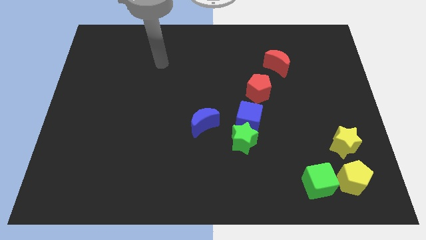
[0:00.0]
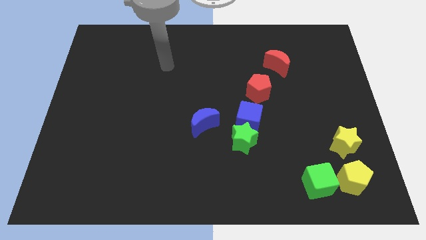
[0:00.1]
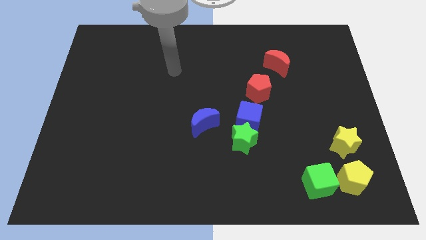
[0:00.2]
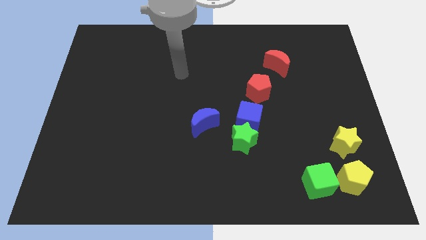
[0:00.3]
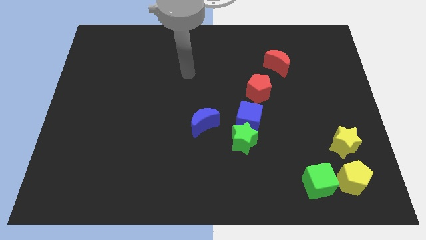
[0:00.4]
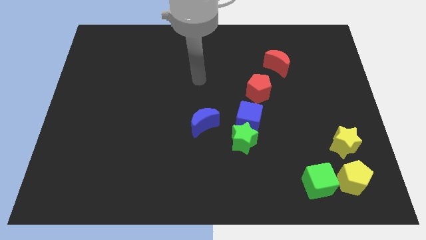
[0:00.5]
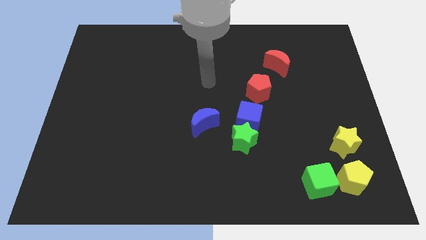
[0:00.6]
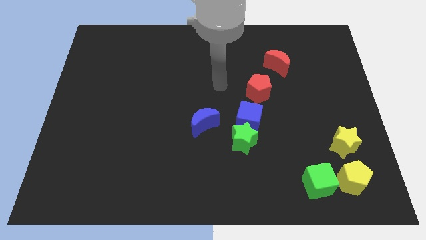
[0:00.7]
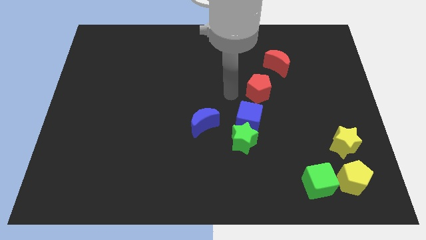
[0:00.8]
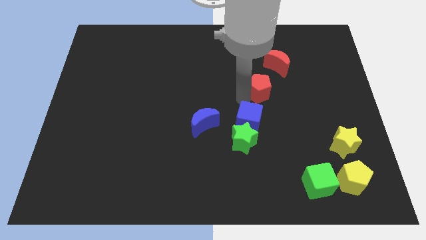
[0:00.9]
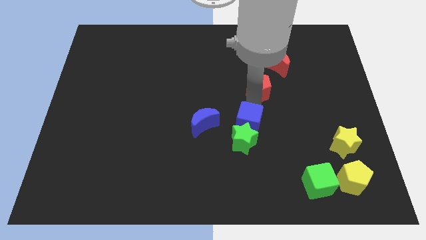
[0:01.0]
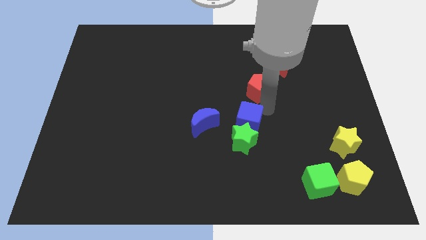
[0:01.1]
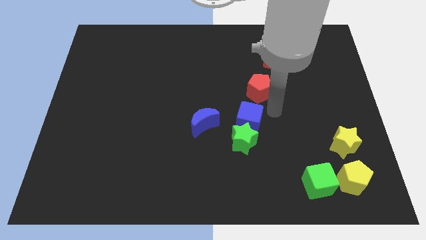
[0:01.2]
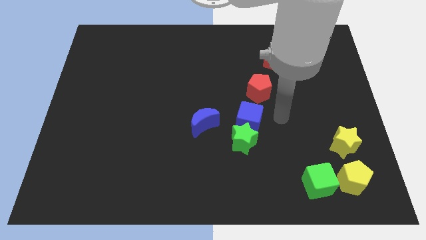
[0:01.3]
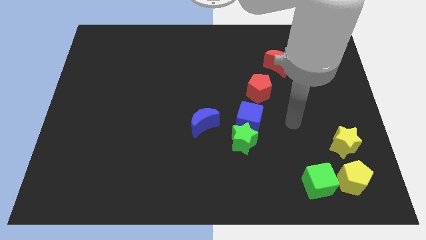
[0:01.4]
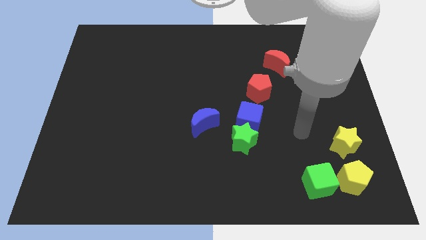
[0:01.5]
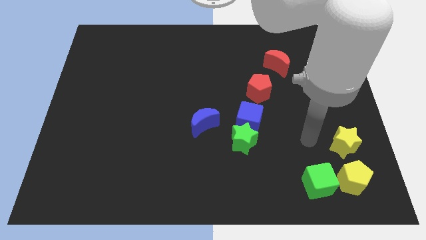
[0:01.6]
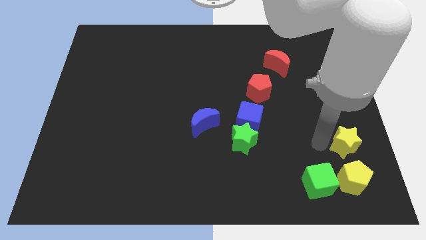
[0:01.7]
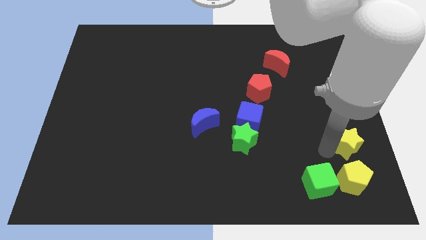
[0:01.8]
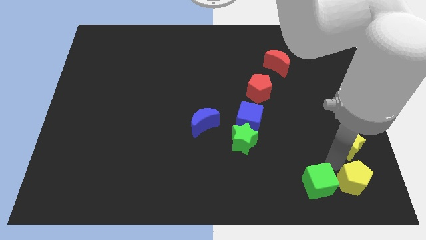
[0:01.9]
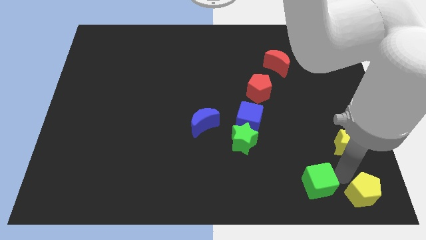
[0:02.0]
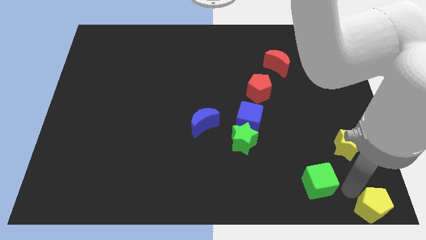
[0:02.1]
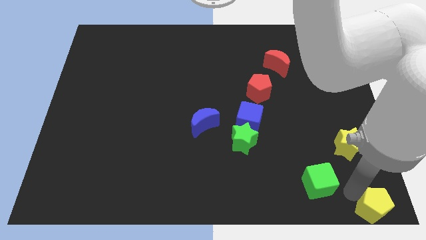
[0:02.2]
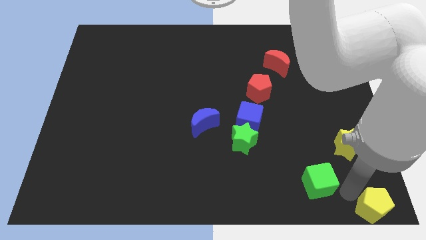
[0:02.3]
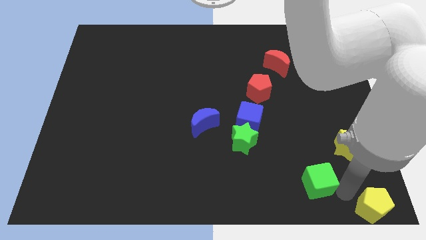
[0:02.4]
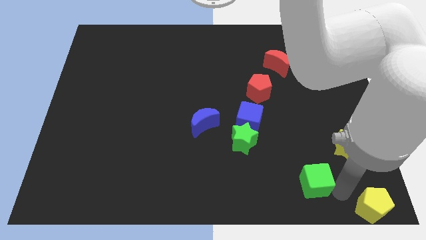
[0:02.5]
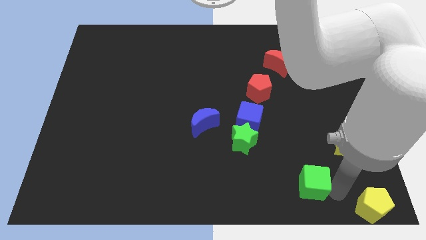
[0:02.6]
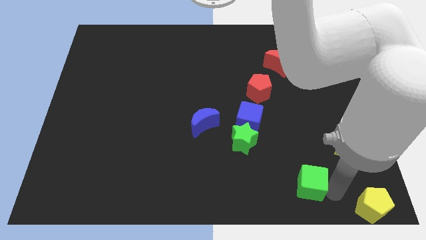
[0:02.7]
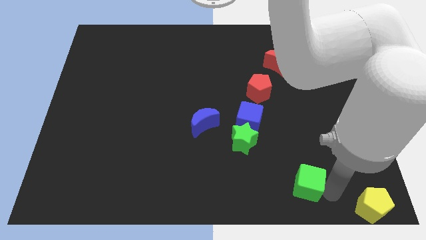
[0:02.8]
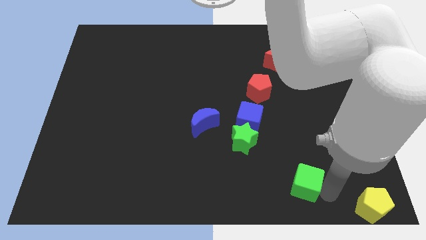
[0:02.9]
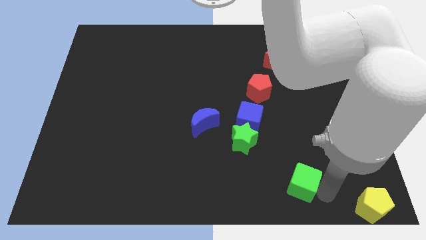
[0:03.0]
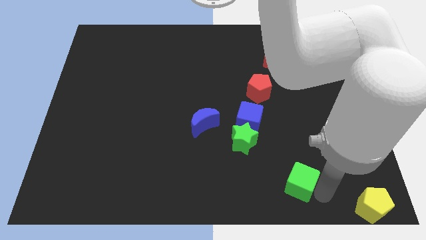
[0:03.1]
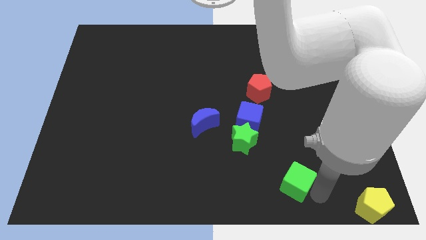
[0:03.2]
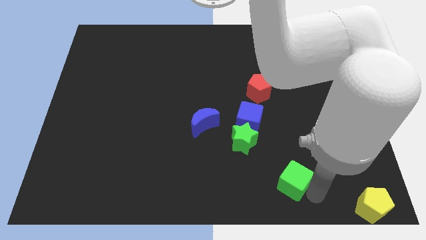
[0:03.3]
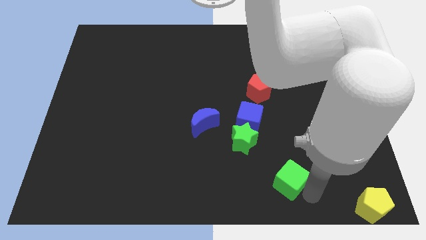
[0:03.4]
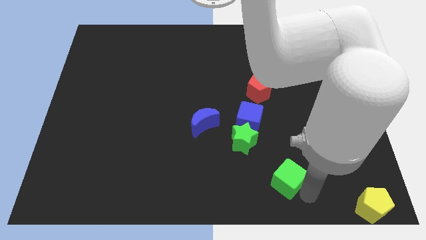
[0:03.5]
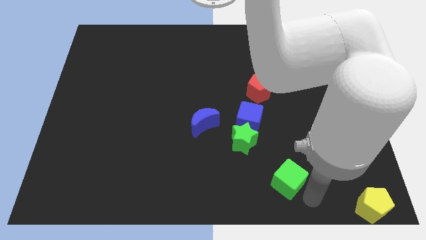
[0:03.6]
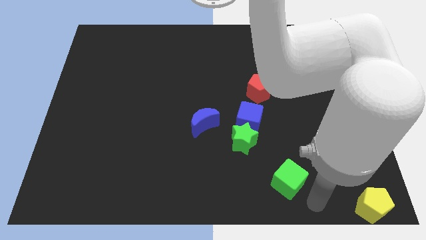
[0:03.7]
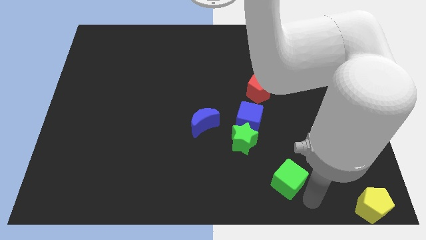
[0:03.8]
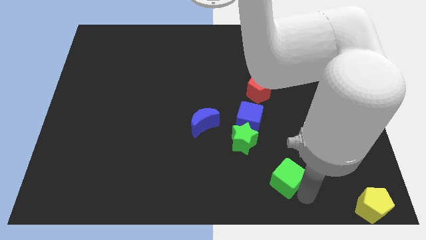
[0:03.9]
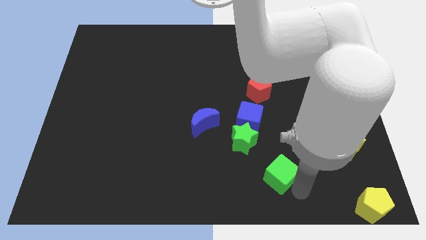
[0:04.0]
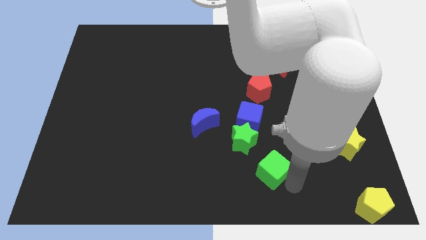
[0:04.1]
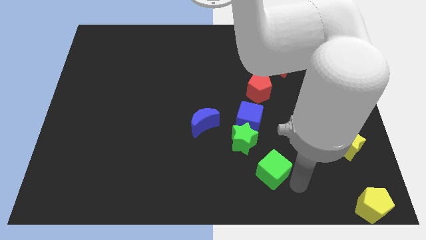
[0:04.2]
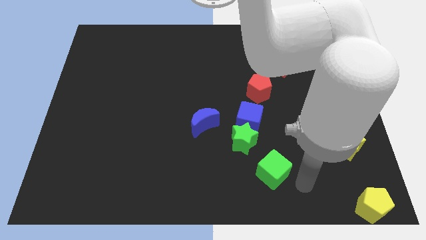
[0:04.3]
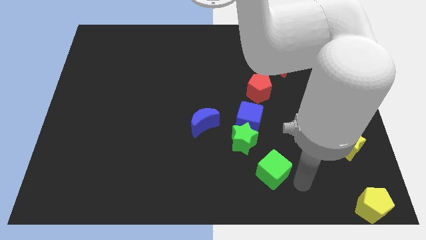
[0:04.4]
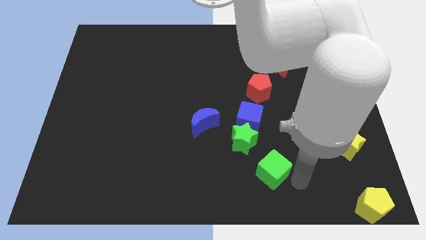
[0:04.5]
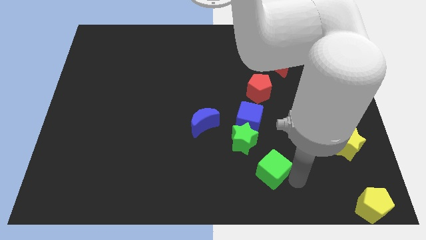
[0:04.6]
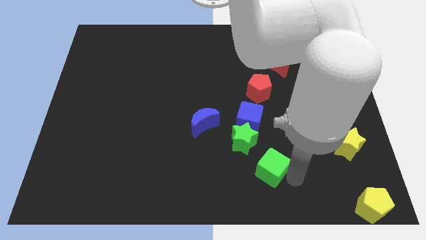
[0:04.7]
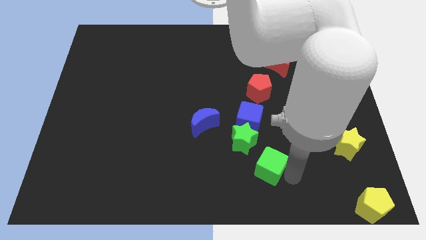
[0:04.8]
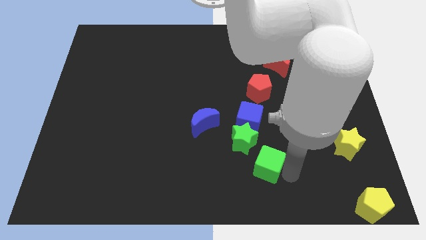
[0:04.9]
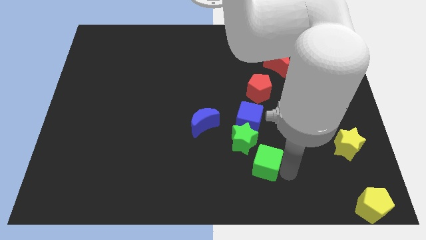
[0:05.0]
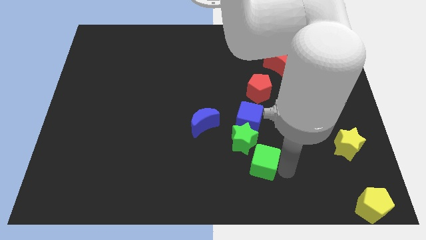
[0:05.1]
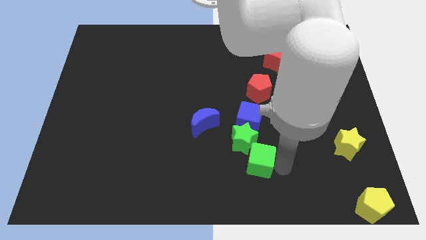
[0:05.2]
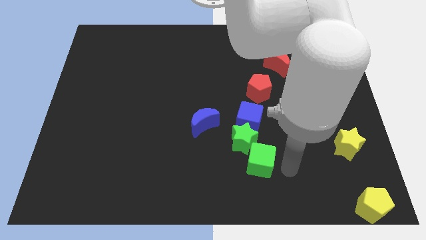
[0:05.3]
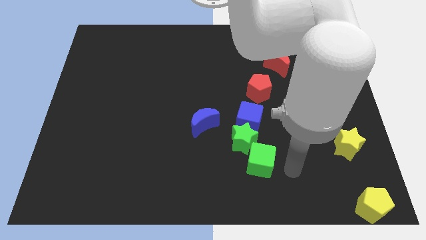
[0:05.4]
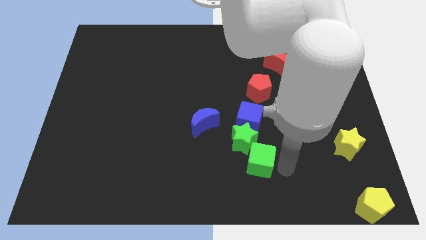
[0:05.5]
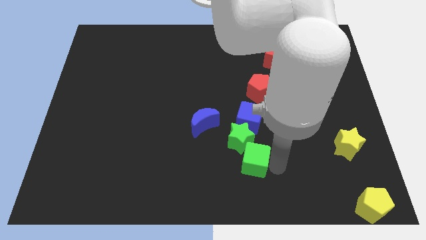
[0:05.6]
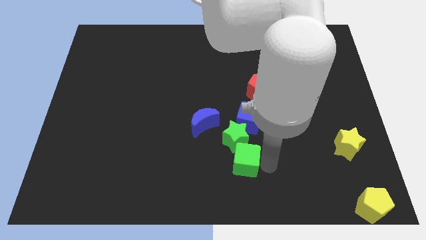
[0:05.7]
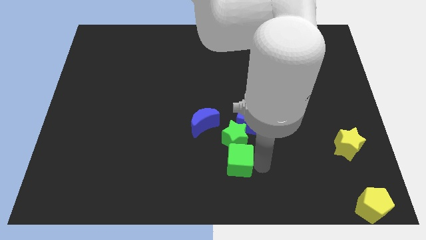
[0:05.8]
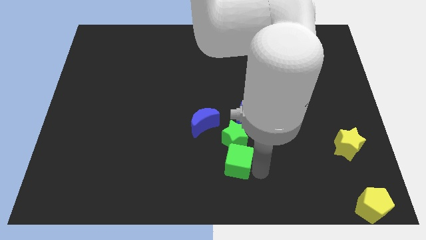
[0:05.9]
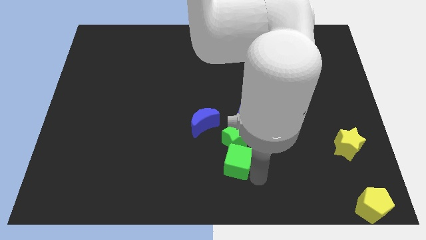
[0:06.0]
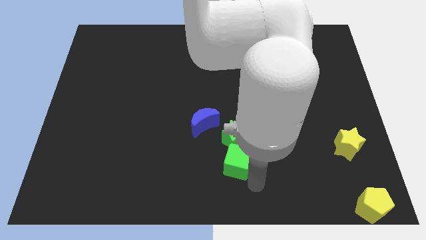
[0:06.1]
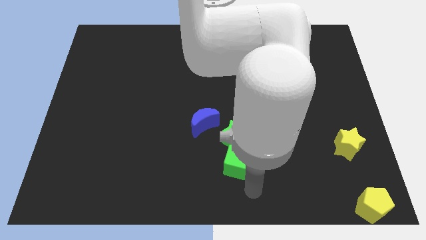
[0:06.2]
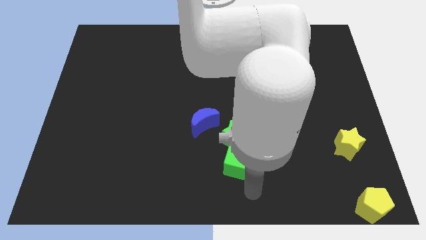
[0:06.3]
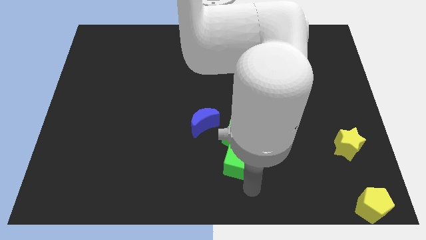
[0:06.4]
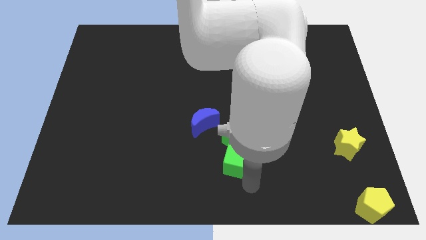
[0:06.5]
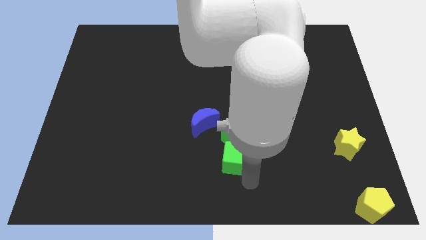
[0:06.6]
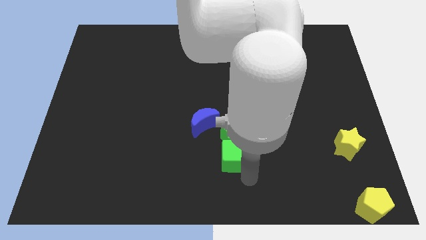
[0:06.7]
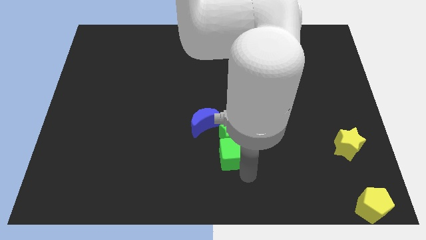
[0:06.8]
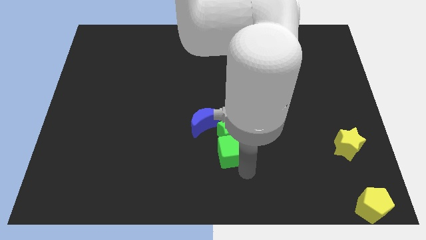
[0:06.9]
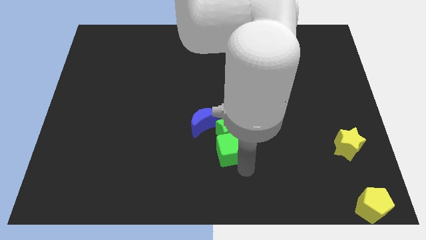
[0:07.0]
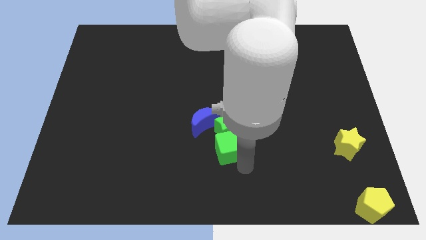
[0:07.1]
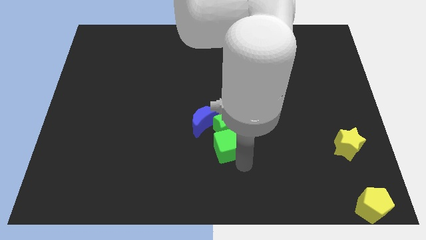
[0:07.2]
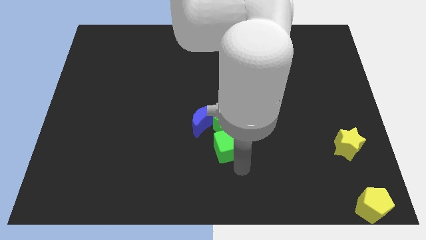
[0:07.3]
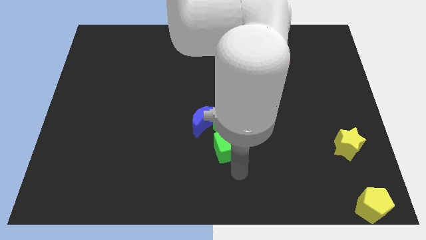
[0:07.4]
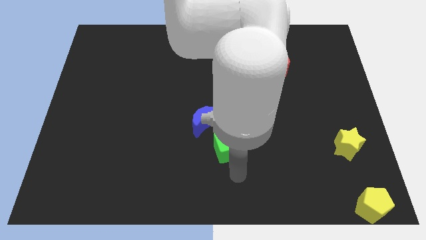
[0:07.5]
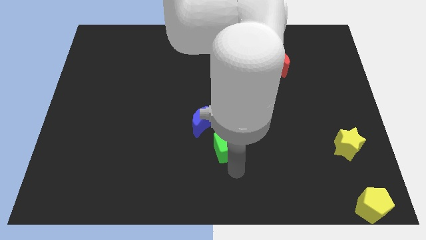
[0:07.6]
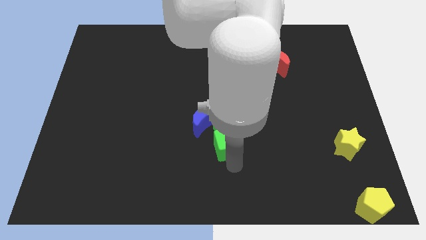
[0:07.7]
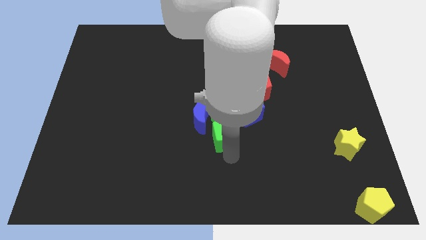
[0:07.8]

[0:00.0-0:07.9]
move the green cube up and then left
